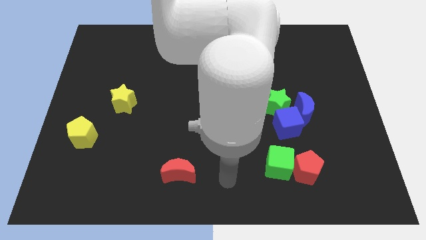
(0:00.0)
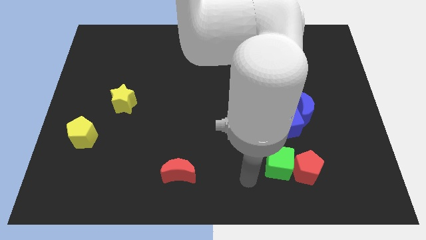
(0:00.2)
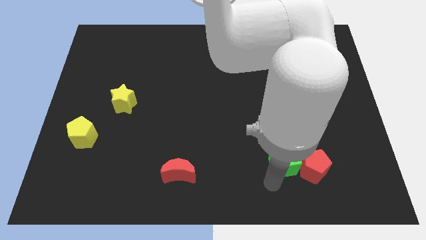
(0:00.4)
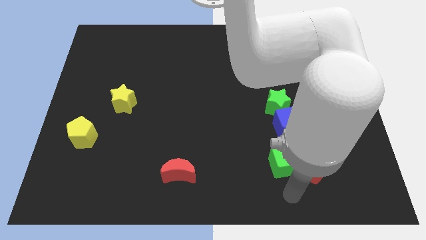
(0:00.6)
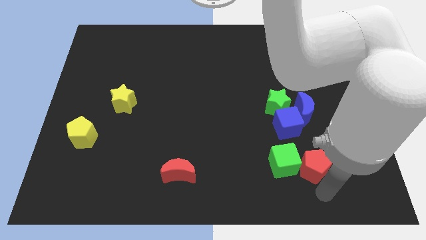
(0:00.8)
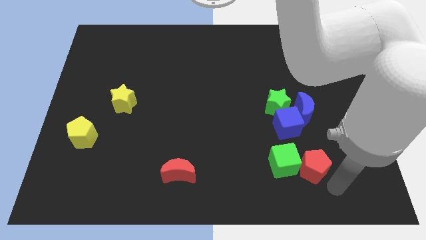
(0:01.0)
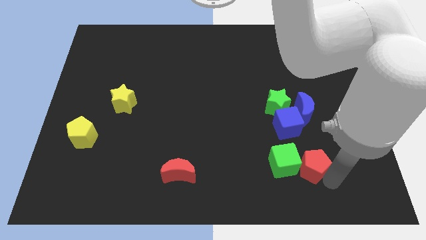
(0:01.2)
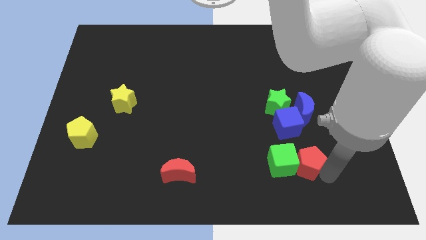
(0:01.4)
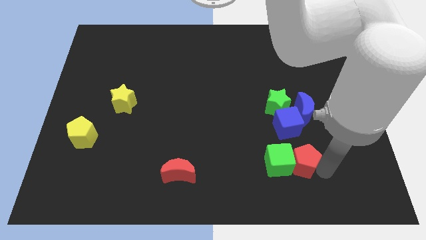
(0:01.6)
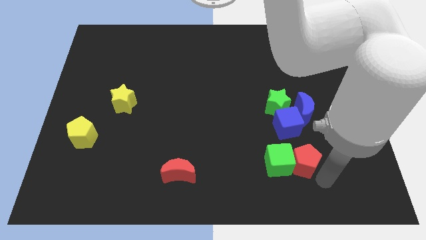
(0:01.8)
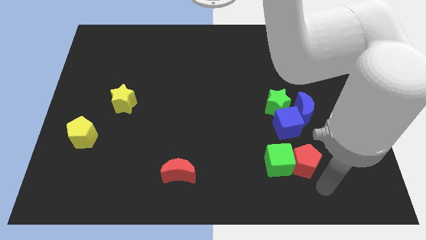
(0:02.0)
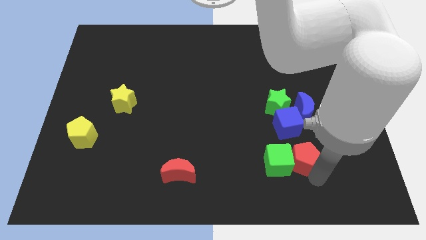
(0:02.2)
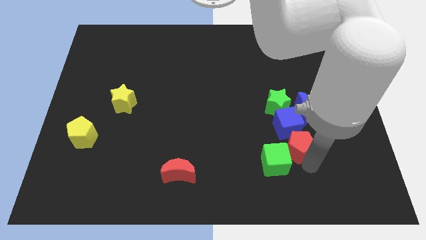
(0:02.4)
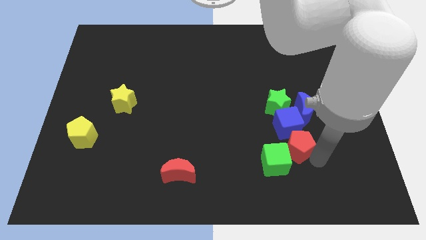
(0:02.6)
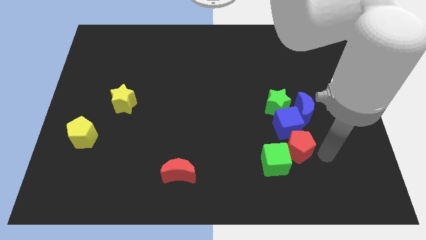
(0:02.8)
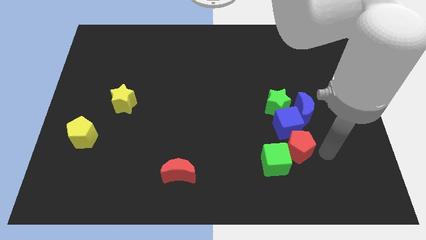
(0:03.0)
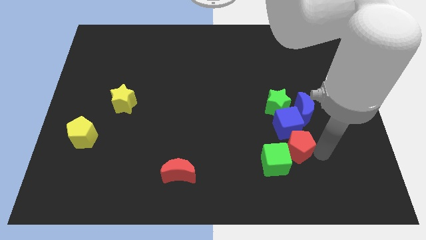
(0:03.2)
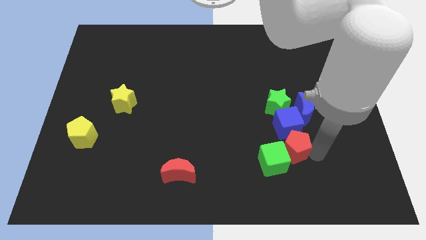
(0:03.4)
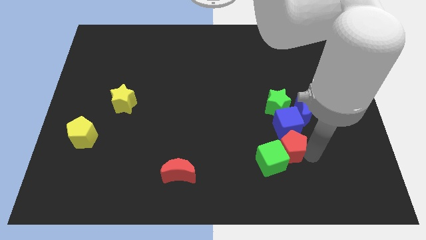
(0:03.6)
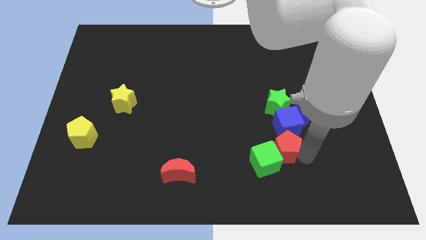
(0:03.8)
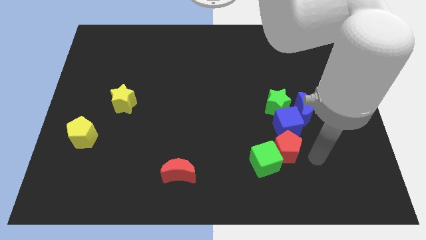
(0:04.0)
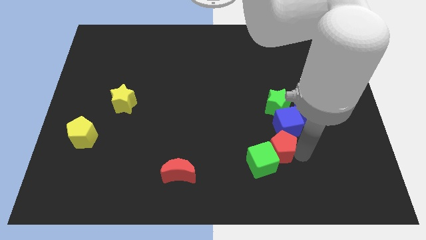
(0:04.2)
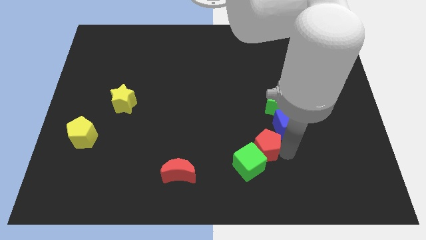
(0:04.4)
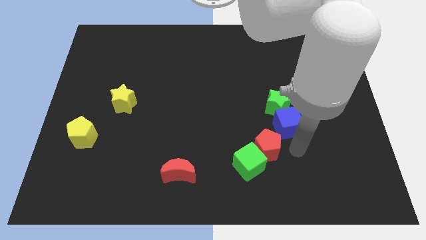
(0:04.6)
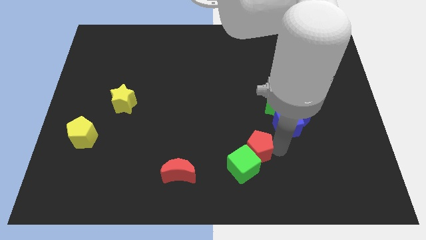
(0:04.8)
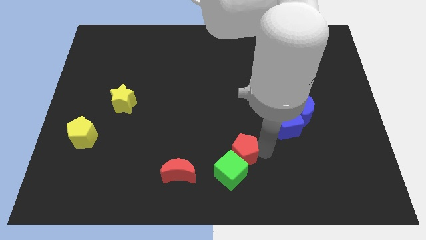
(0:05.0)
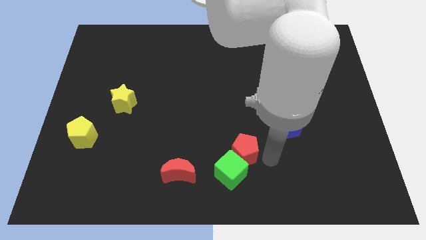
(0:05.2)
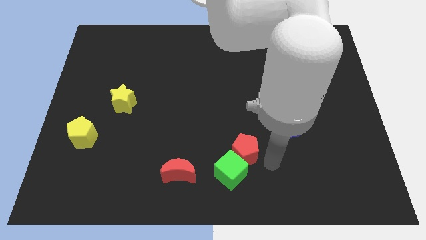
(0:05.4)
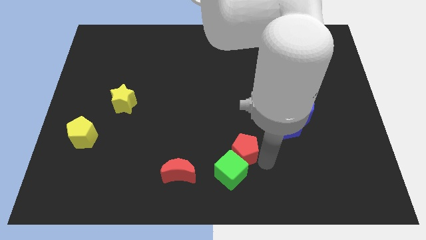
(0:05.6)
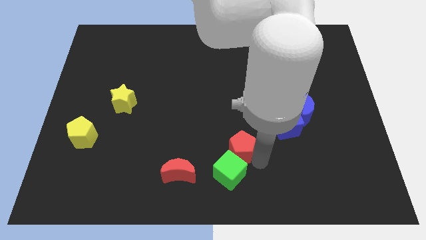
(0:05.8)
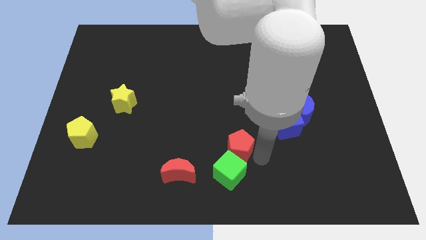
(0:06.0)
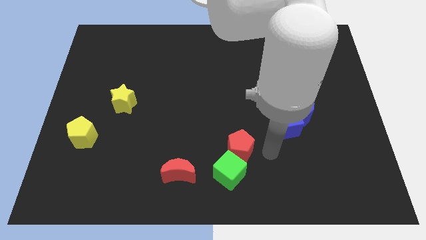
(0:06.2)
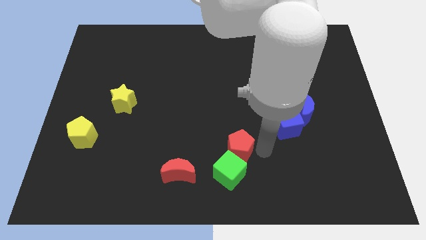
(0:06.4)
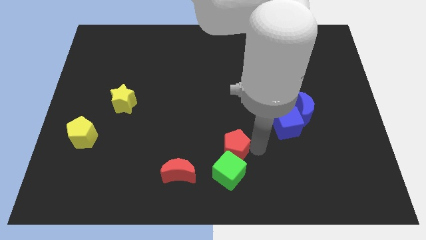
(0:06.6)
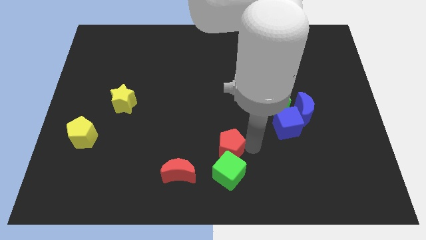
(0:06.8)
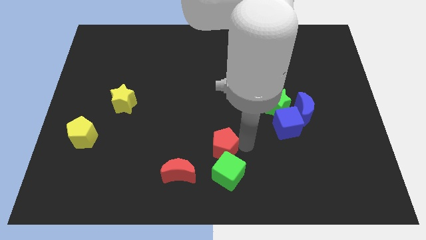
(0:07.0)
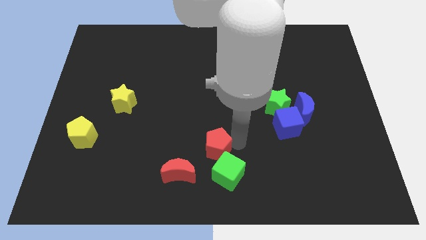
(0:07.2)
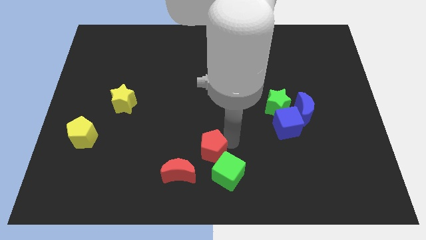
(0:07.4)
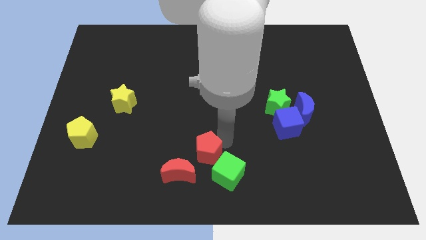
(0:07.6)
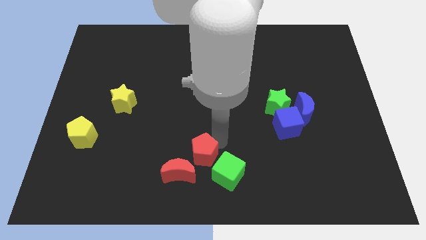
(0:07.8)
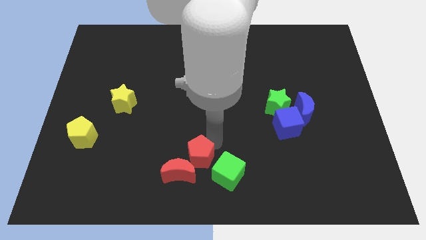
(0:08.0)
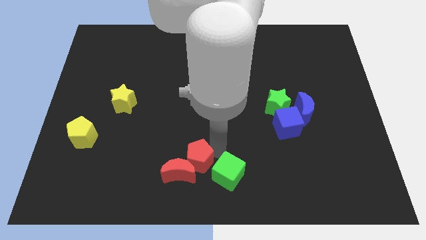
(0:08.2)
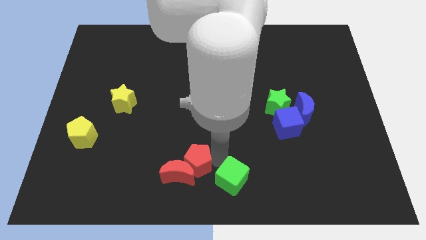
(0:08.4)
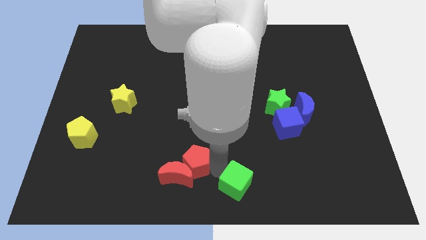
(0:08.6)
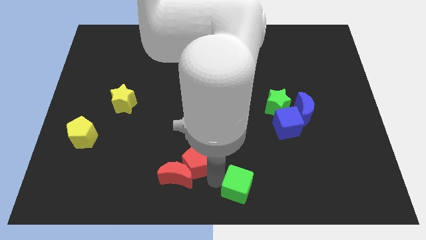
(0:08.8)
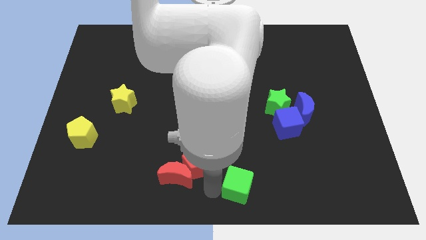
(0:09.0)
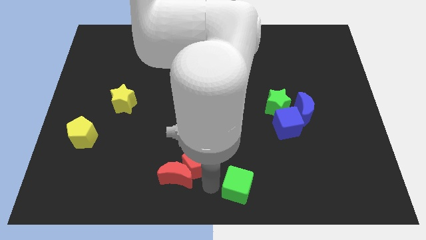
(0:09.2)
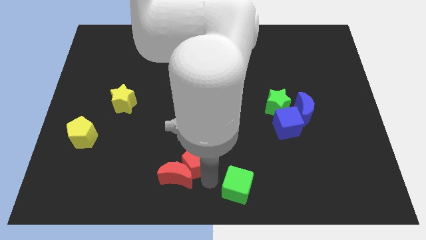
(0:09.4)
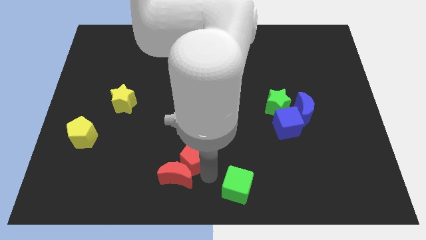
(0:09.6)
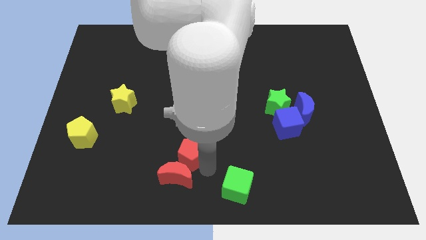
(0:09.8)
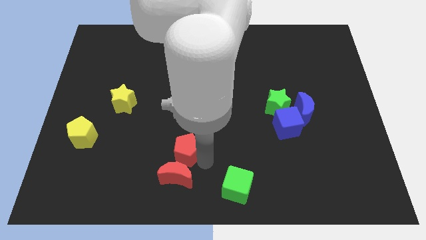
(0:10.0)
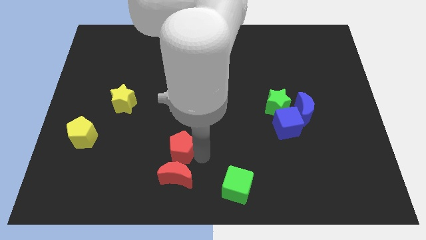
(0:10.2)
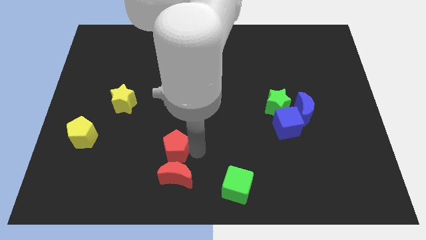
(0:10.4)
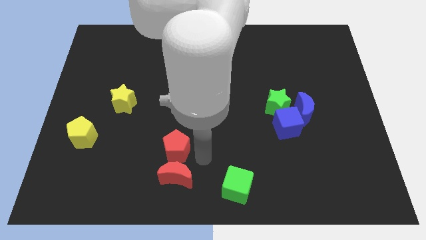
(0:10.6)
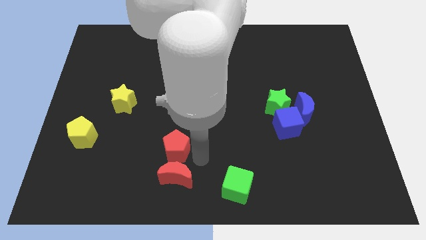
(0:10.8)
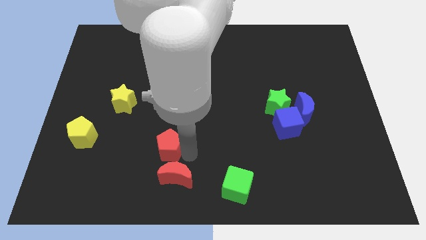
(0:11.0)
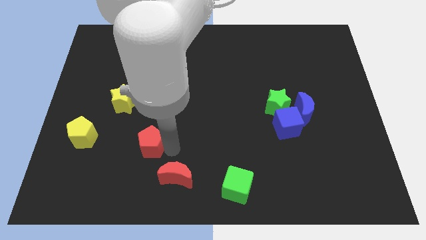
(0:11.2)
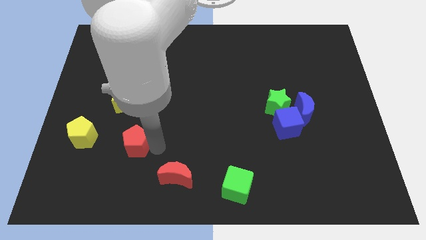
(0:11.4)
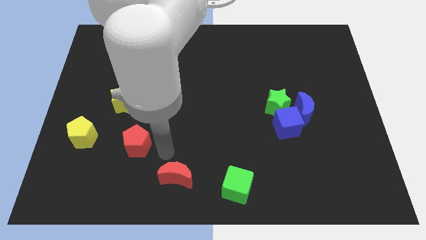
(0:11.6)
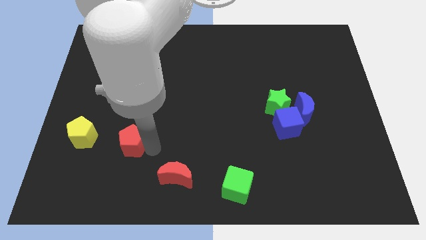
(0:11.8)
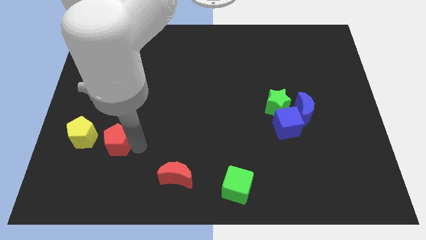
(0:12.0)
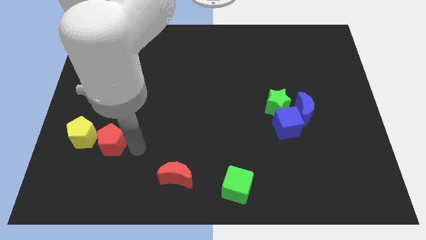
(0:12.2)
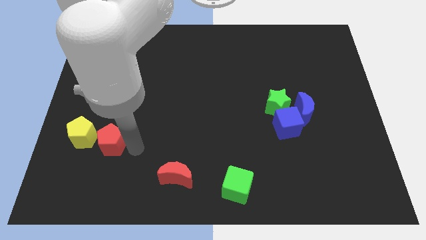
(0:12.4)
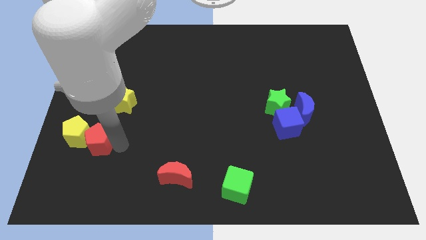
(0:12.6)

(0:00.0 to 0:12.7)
slide the red pentagon towards the yellow pentagon

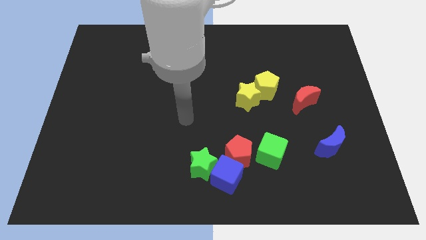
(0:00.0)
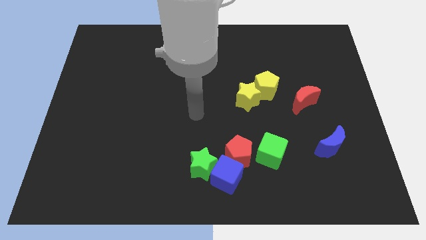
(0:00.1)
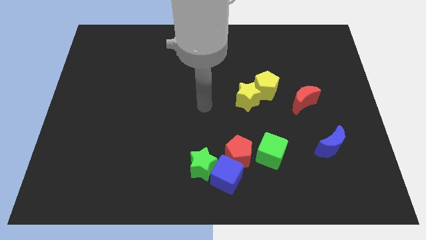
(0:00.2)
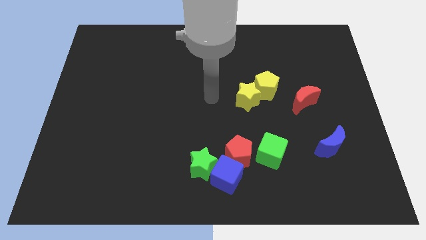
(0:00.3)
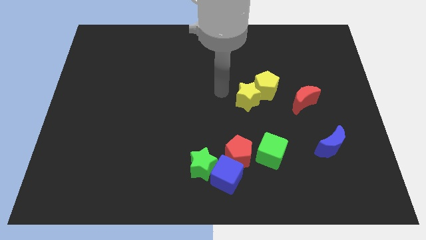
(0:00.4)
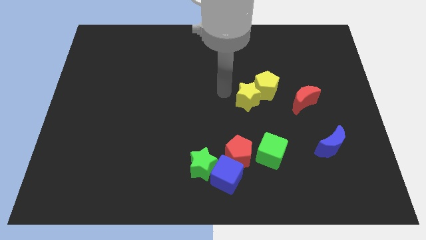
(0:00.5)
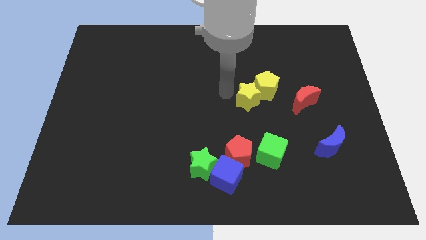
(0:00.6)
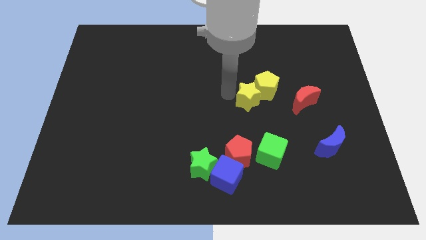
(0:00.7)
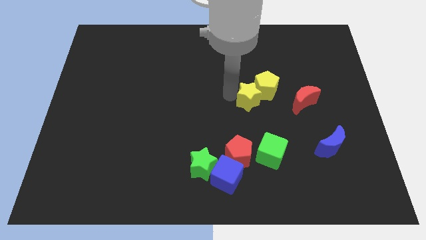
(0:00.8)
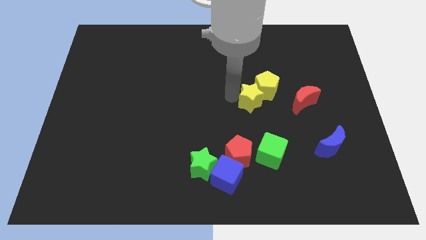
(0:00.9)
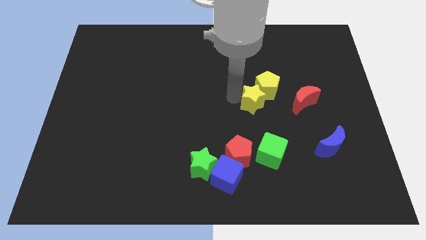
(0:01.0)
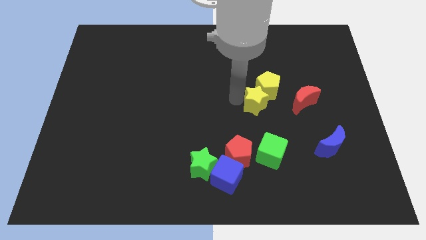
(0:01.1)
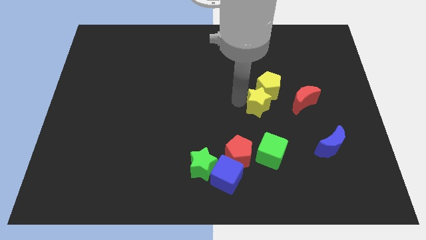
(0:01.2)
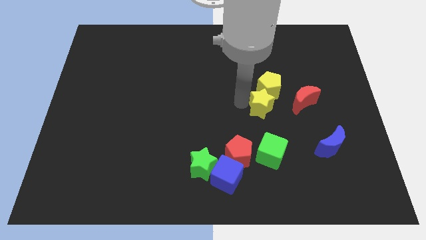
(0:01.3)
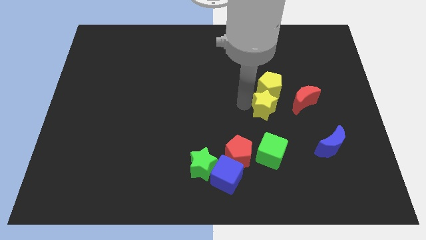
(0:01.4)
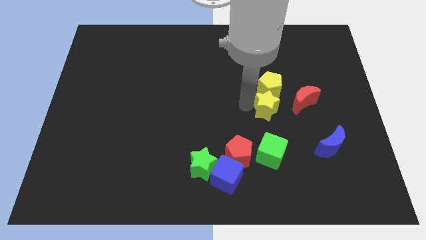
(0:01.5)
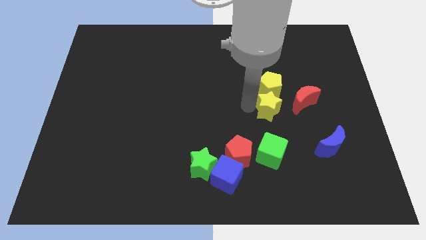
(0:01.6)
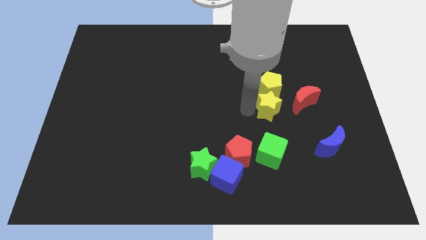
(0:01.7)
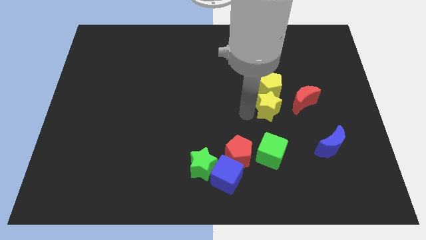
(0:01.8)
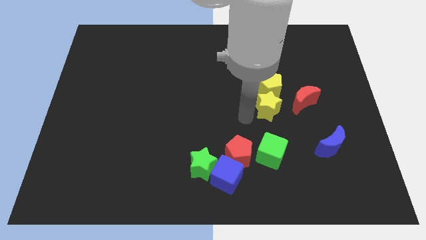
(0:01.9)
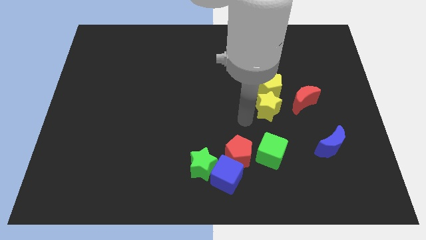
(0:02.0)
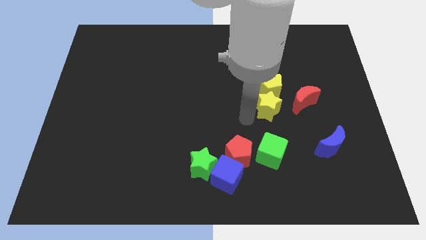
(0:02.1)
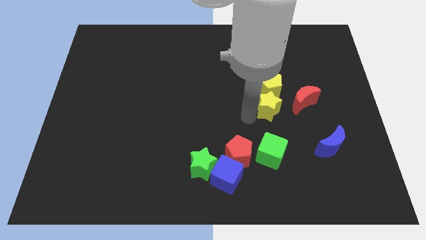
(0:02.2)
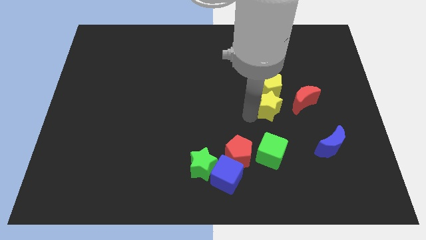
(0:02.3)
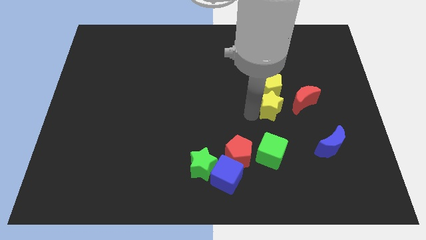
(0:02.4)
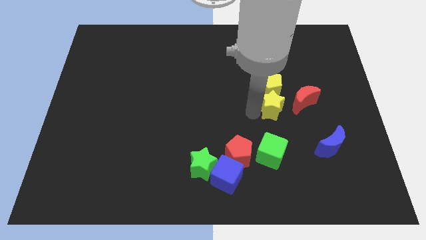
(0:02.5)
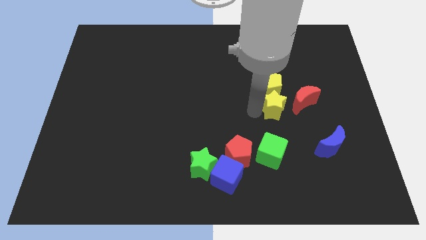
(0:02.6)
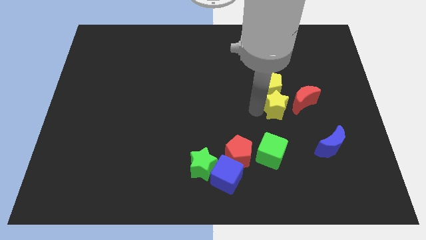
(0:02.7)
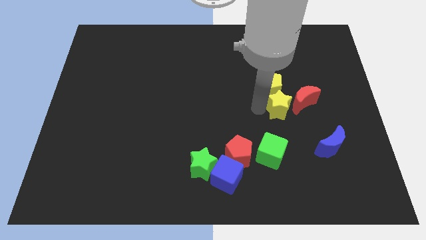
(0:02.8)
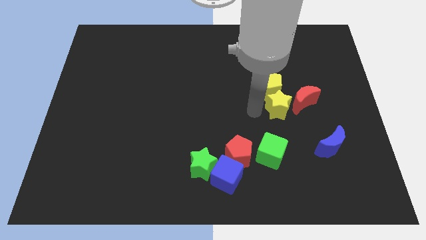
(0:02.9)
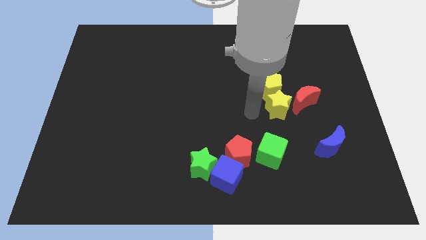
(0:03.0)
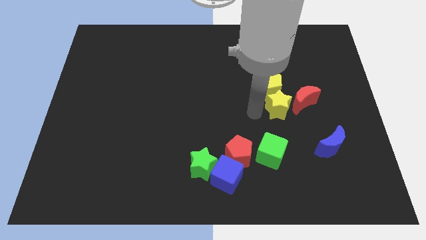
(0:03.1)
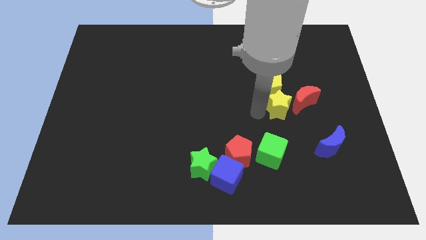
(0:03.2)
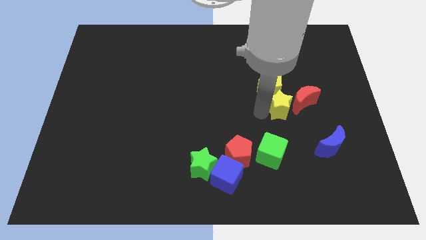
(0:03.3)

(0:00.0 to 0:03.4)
push the yellow star towards the red moon
